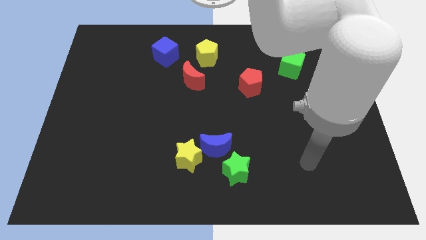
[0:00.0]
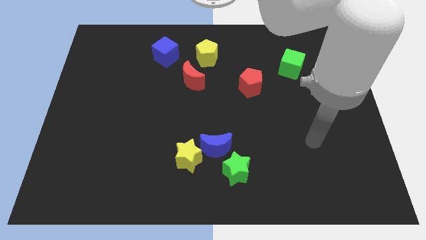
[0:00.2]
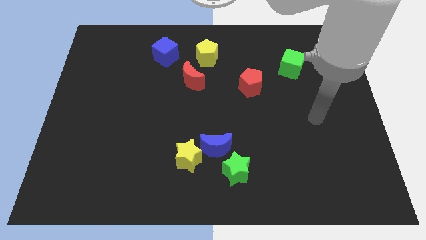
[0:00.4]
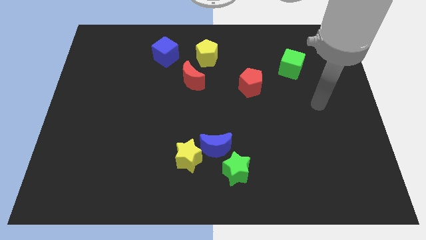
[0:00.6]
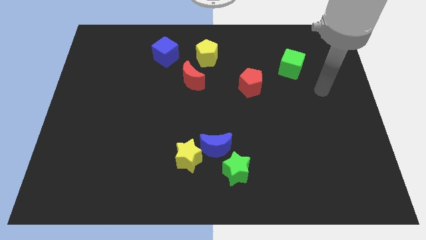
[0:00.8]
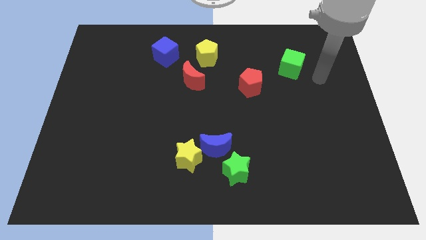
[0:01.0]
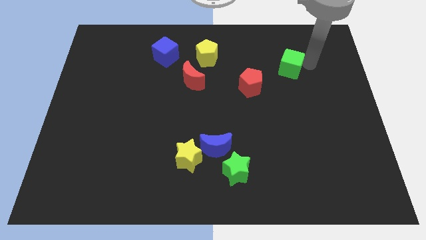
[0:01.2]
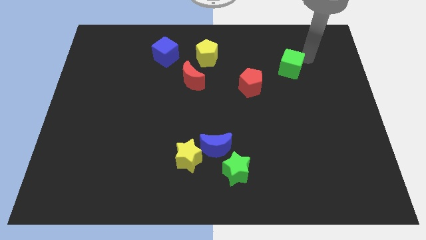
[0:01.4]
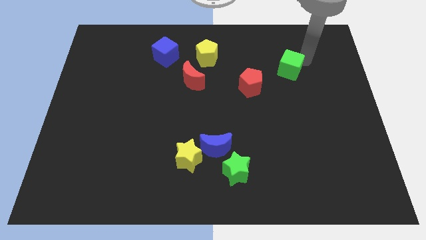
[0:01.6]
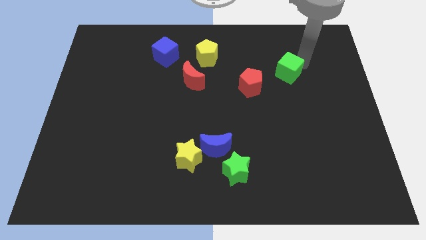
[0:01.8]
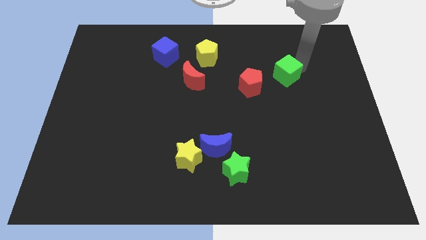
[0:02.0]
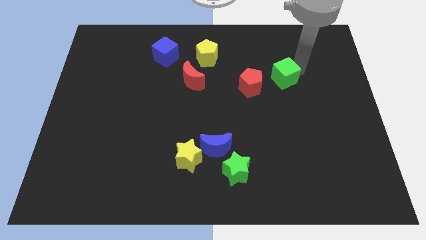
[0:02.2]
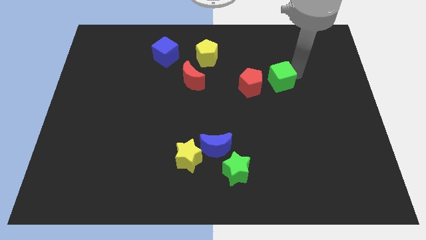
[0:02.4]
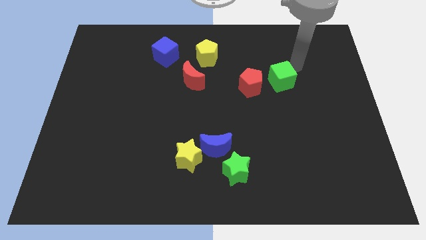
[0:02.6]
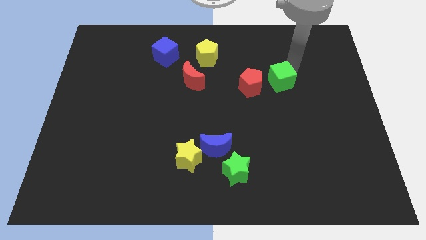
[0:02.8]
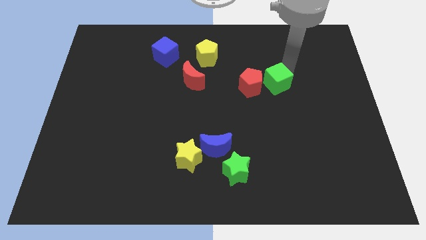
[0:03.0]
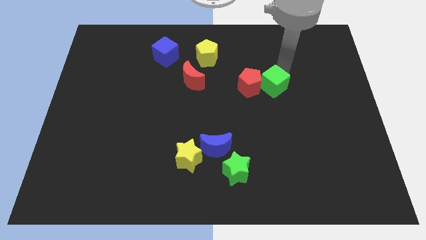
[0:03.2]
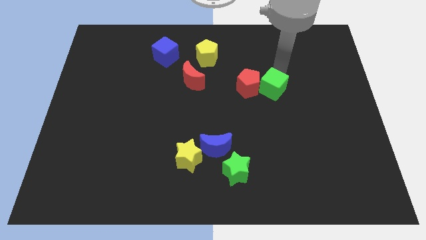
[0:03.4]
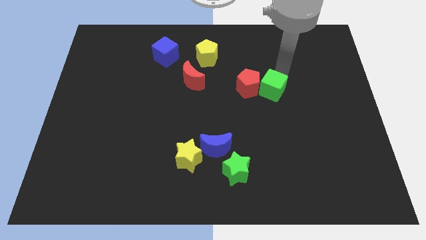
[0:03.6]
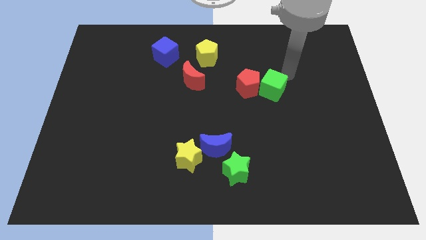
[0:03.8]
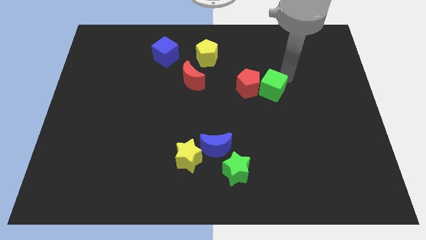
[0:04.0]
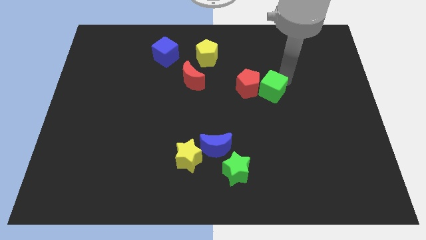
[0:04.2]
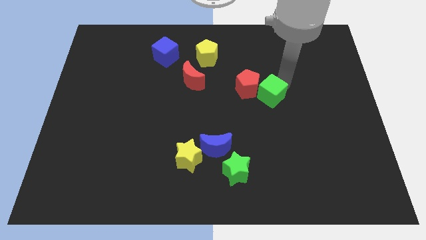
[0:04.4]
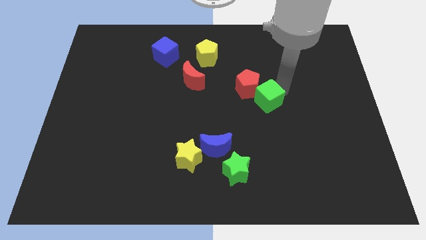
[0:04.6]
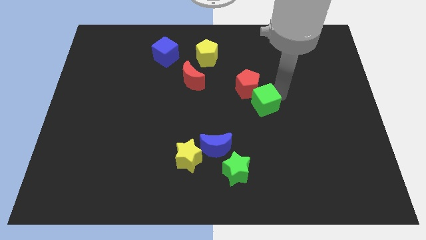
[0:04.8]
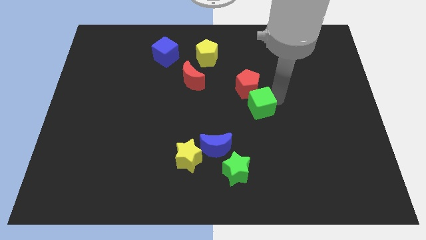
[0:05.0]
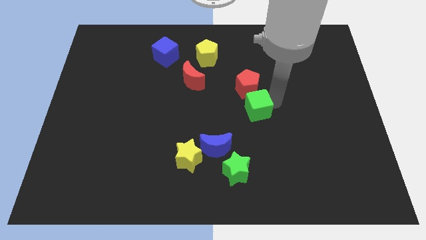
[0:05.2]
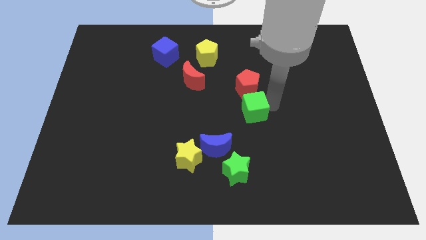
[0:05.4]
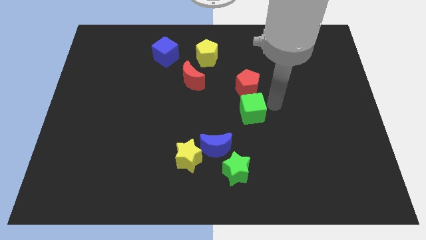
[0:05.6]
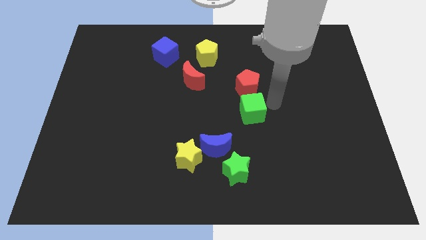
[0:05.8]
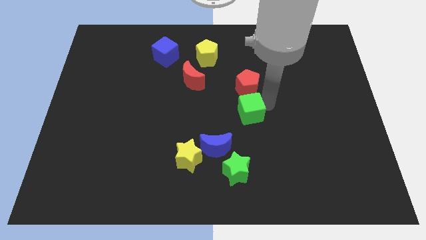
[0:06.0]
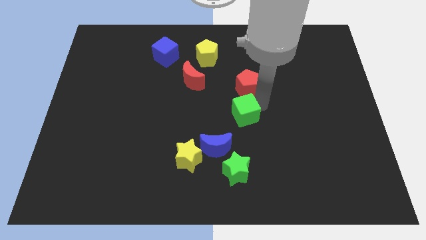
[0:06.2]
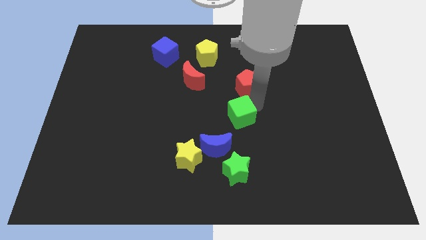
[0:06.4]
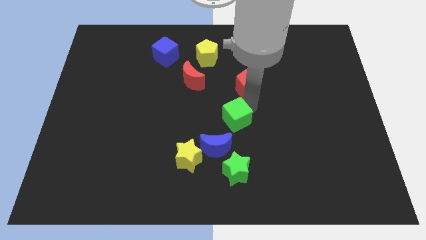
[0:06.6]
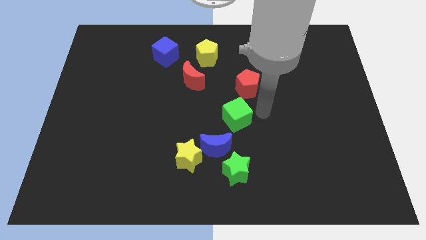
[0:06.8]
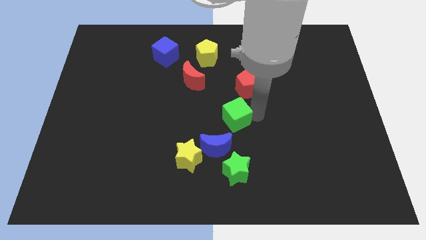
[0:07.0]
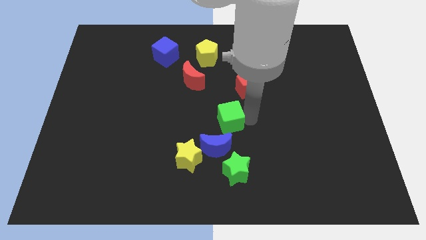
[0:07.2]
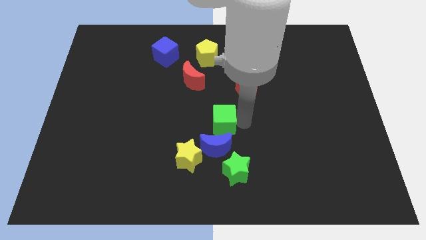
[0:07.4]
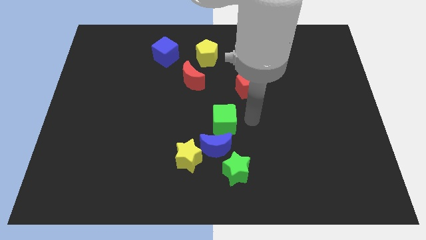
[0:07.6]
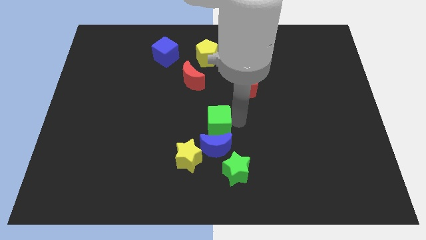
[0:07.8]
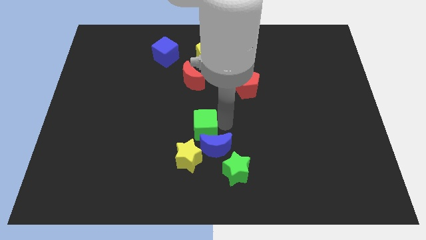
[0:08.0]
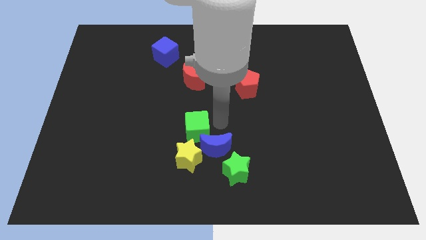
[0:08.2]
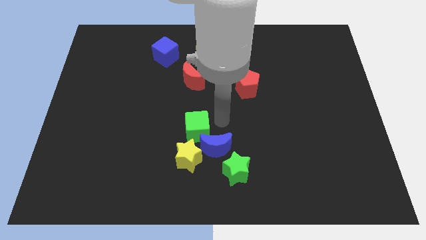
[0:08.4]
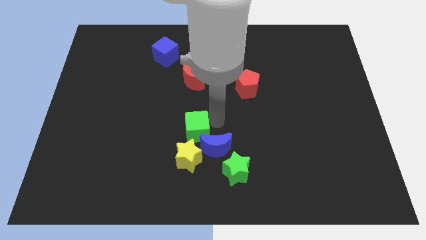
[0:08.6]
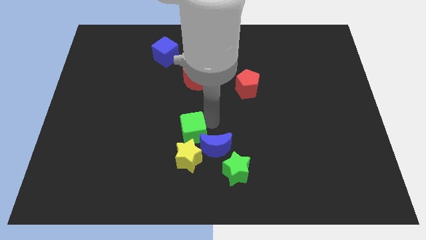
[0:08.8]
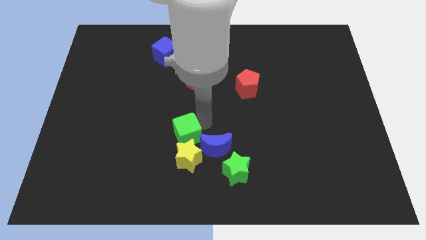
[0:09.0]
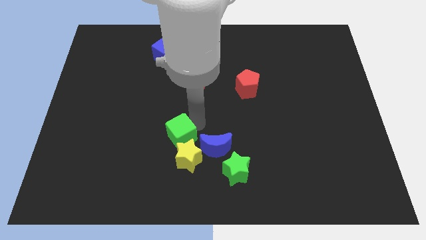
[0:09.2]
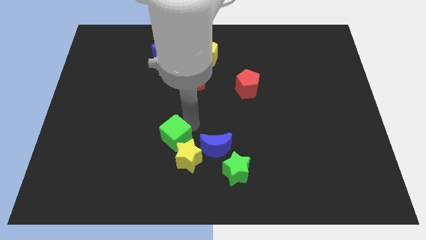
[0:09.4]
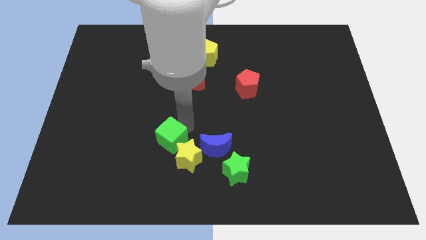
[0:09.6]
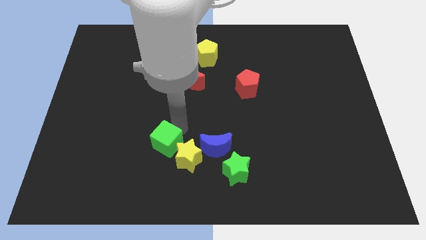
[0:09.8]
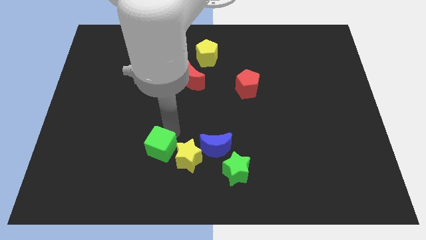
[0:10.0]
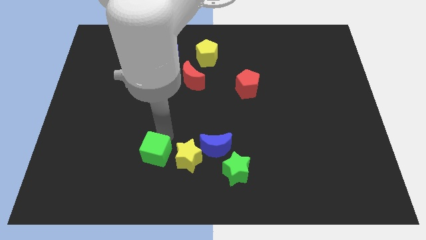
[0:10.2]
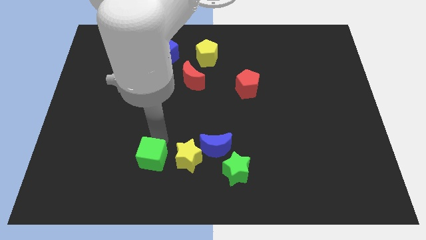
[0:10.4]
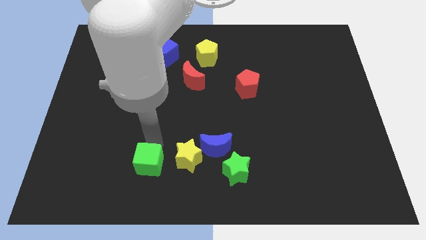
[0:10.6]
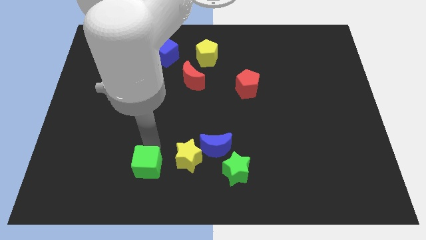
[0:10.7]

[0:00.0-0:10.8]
push the green cube to the bottom left side of the yellow star

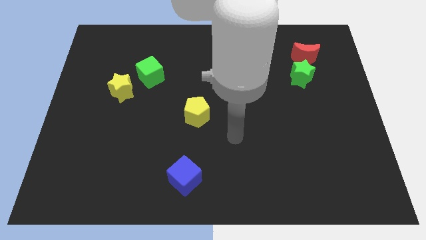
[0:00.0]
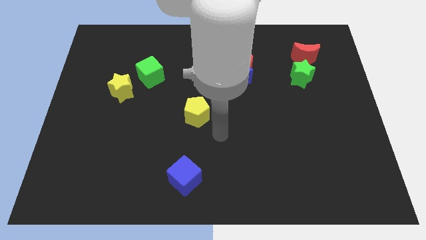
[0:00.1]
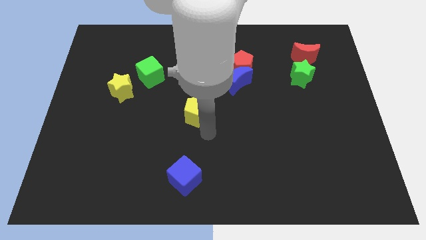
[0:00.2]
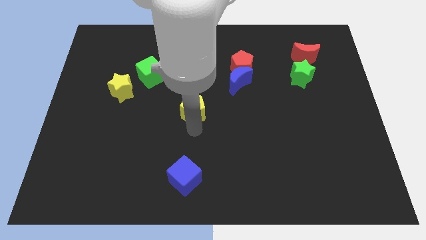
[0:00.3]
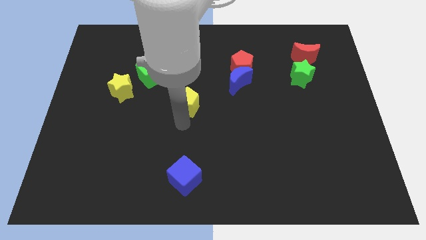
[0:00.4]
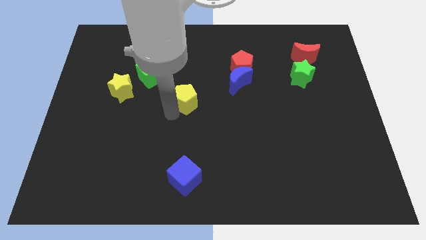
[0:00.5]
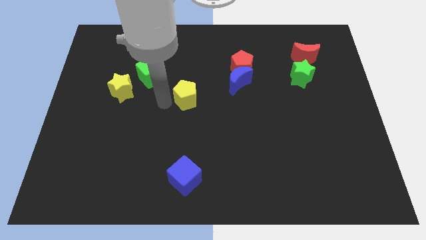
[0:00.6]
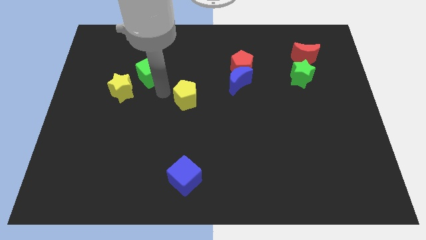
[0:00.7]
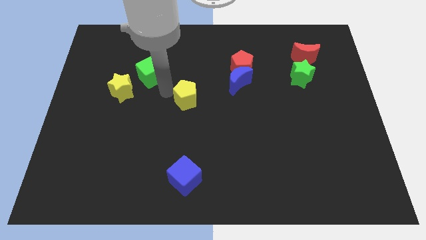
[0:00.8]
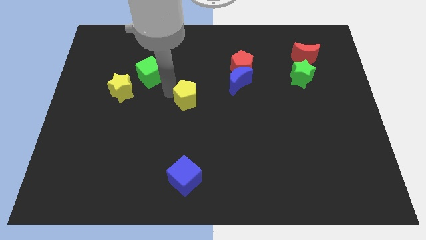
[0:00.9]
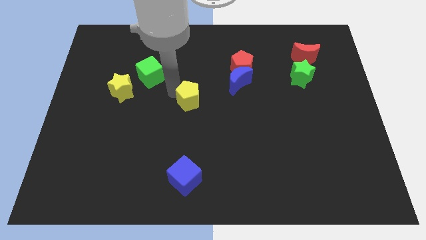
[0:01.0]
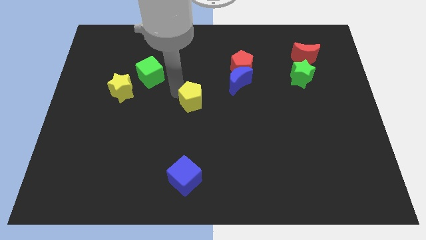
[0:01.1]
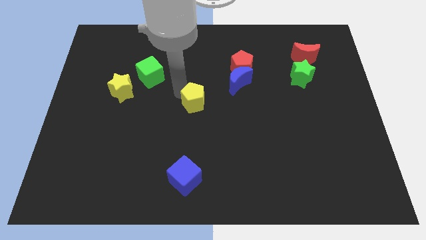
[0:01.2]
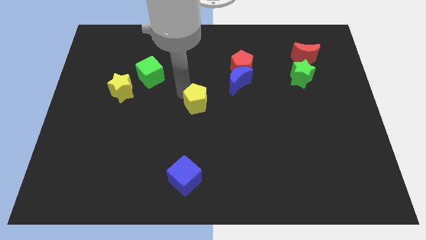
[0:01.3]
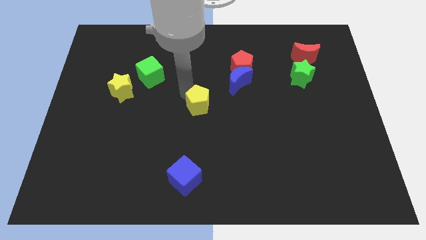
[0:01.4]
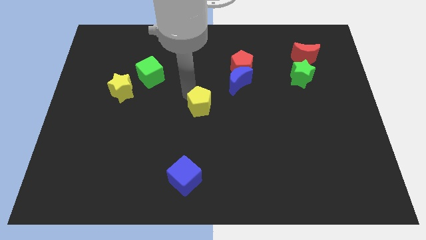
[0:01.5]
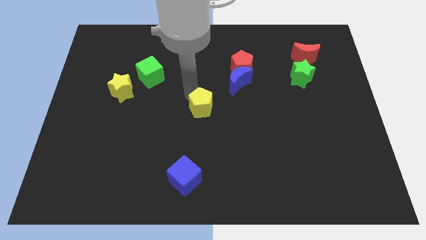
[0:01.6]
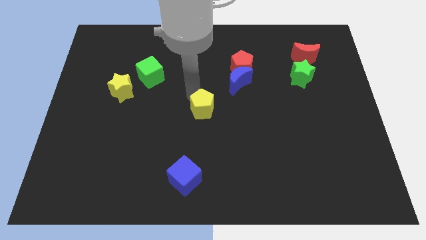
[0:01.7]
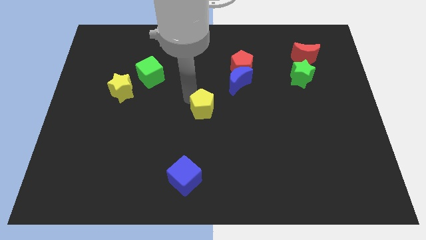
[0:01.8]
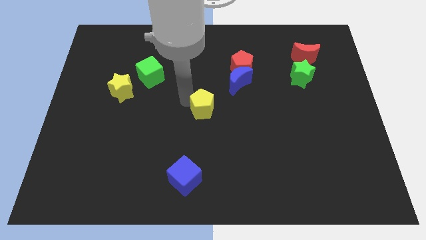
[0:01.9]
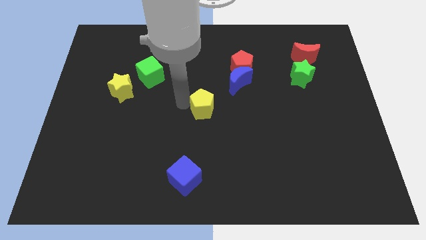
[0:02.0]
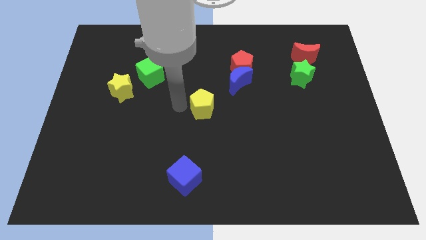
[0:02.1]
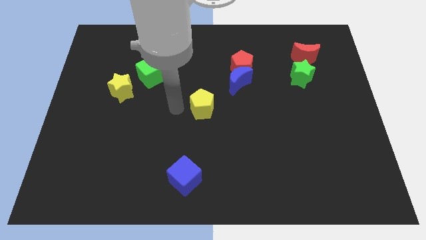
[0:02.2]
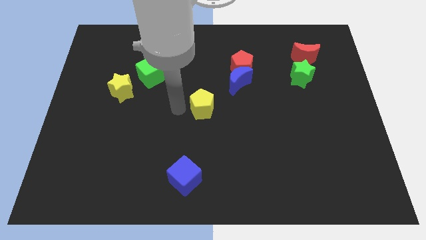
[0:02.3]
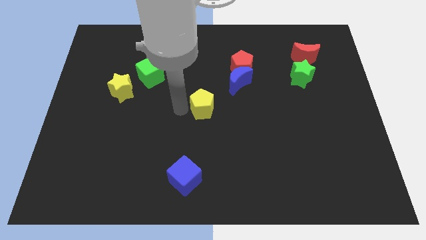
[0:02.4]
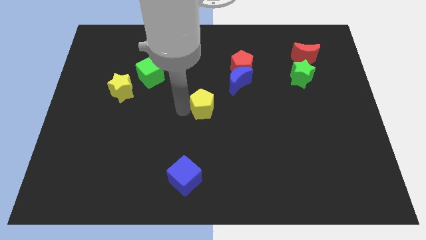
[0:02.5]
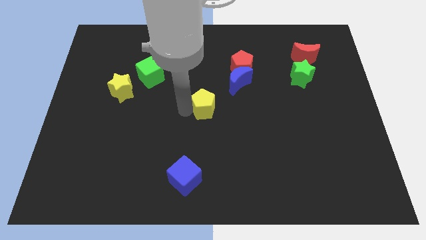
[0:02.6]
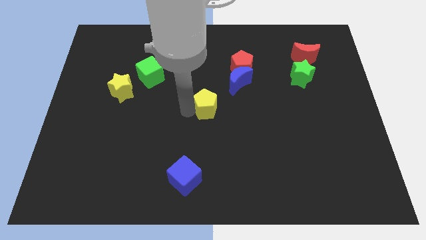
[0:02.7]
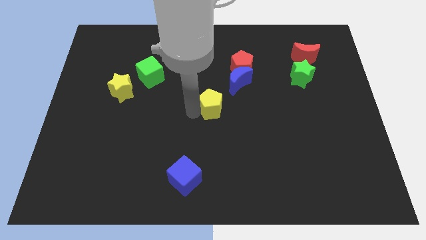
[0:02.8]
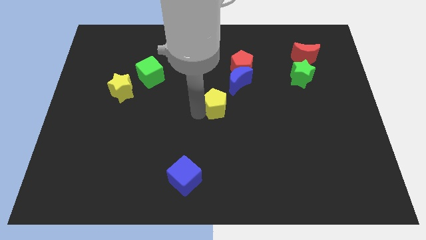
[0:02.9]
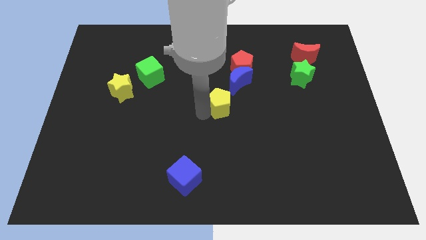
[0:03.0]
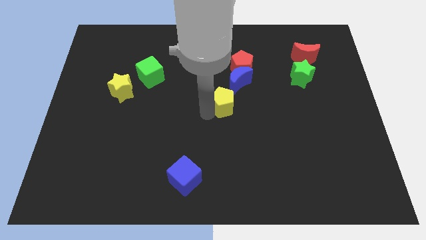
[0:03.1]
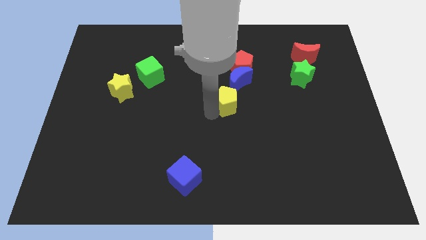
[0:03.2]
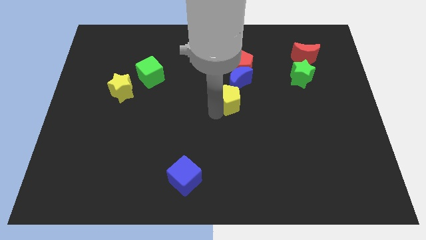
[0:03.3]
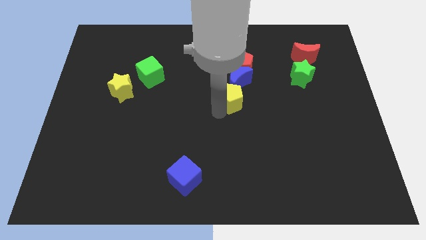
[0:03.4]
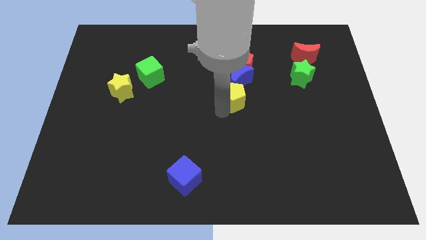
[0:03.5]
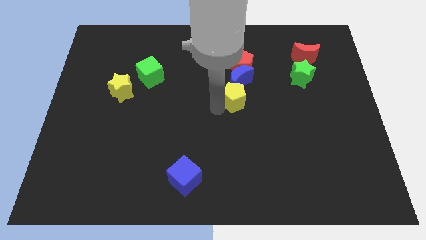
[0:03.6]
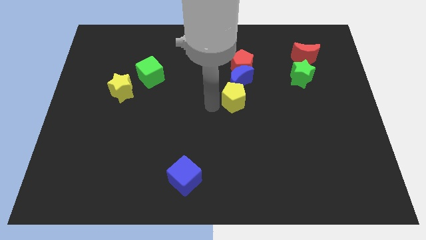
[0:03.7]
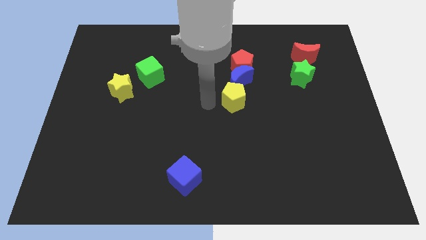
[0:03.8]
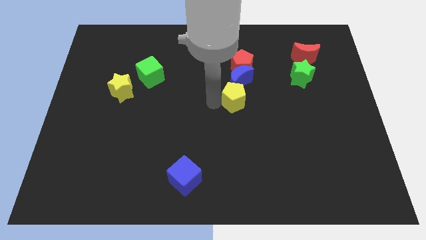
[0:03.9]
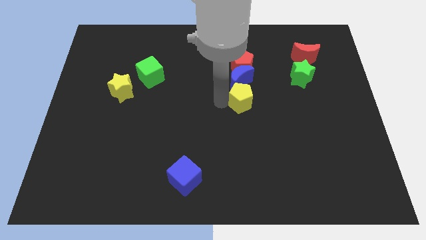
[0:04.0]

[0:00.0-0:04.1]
push the yellow pentagon diagonally down and to the right of the blue moon
